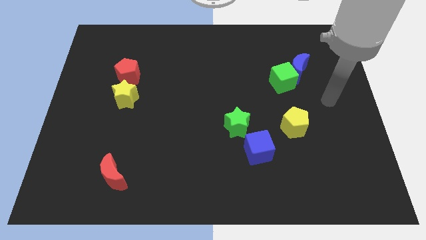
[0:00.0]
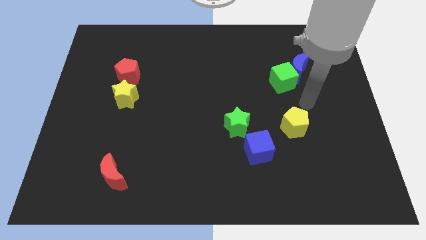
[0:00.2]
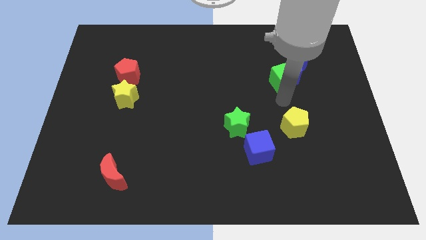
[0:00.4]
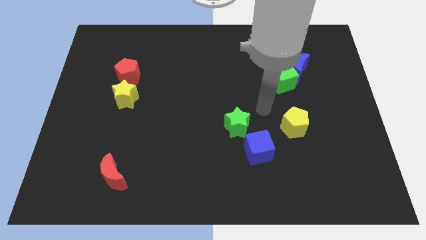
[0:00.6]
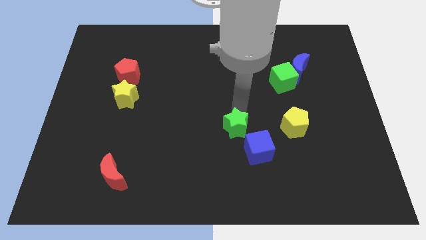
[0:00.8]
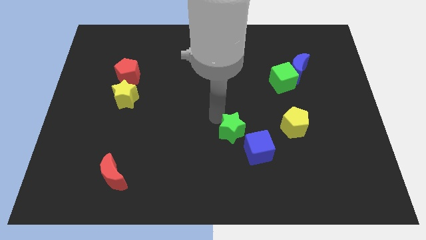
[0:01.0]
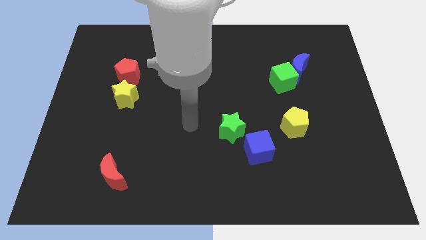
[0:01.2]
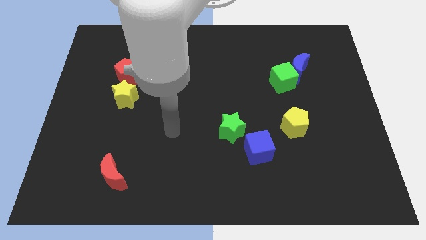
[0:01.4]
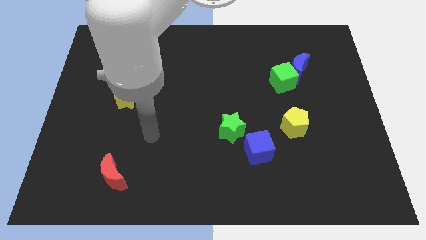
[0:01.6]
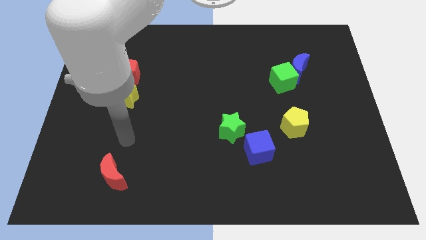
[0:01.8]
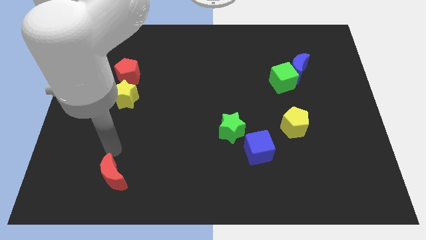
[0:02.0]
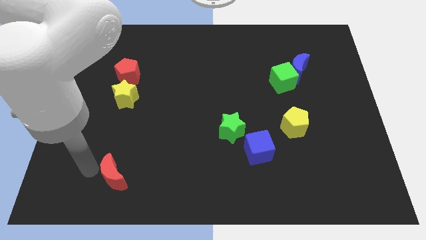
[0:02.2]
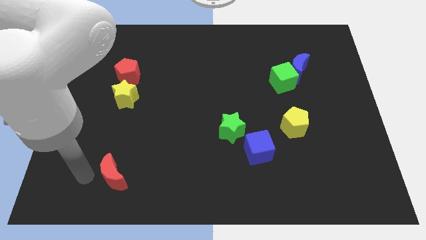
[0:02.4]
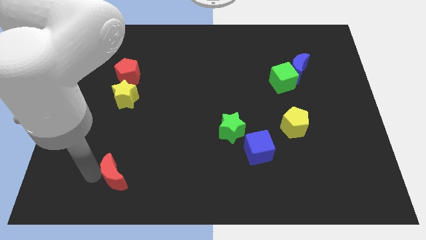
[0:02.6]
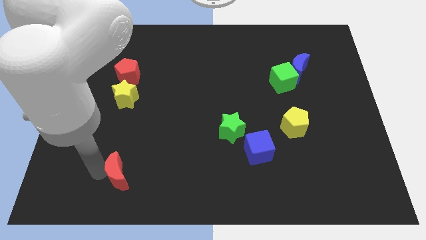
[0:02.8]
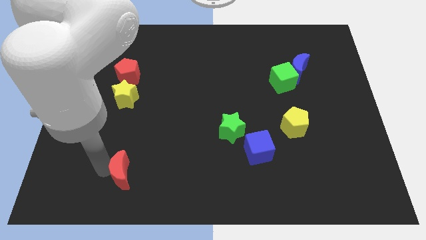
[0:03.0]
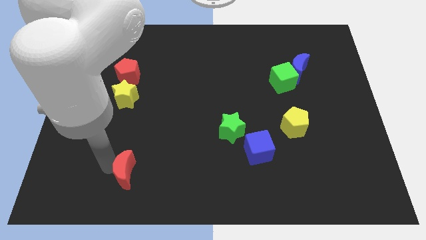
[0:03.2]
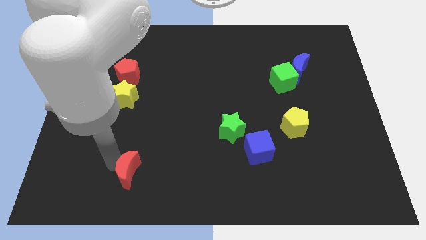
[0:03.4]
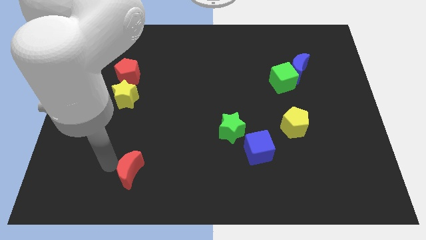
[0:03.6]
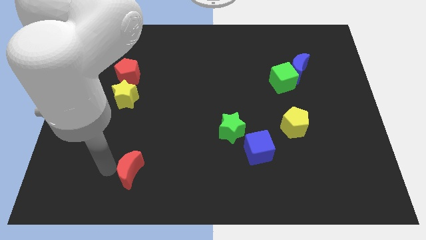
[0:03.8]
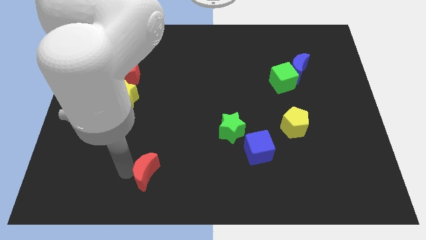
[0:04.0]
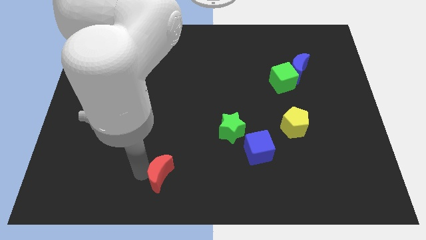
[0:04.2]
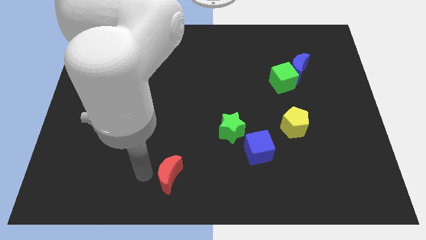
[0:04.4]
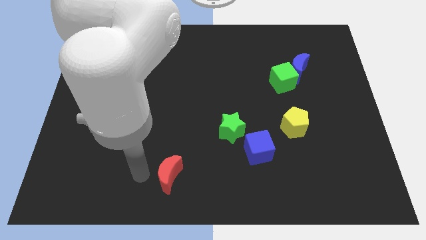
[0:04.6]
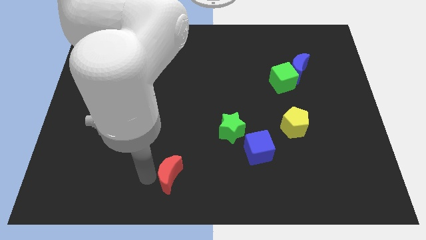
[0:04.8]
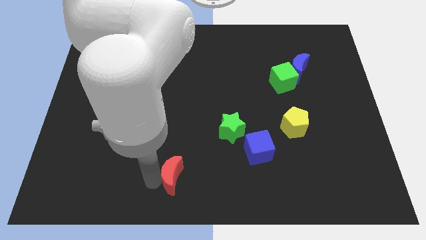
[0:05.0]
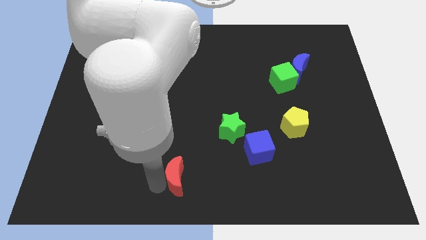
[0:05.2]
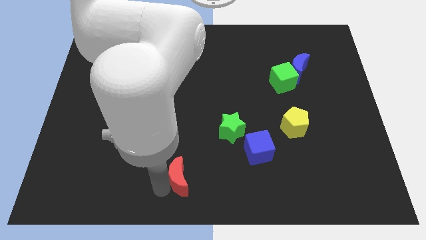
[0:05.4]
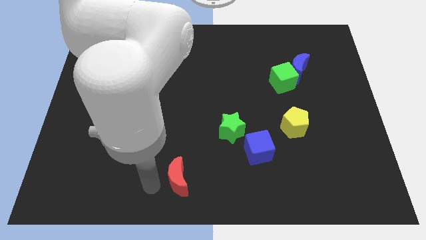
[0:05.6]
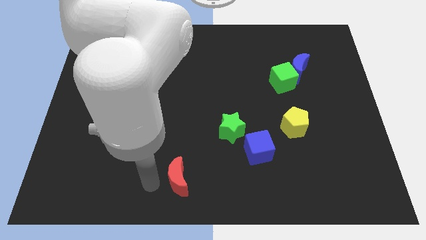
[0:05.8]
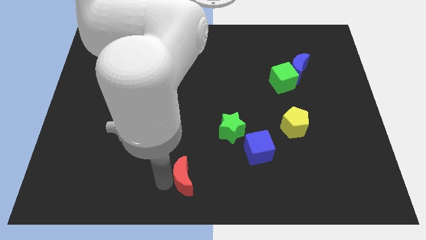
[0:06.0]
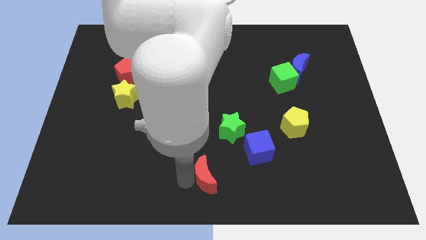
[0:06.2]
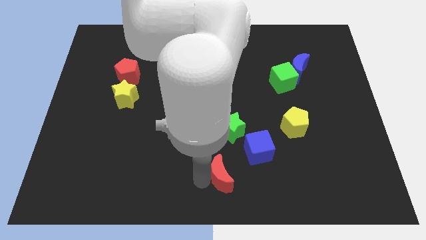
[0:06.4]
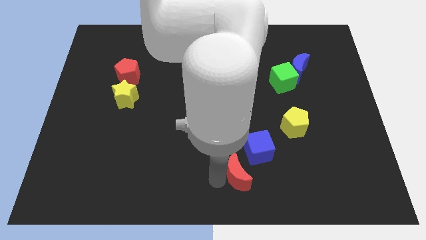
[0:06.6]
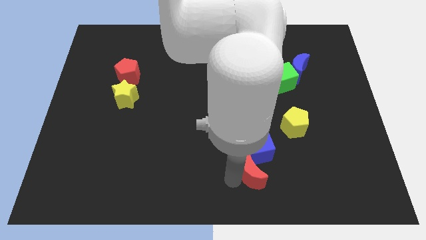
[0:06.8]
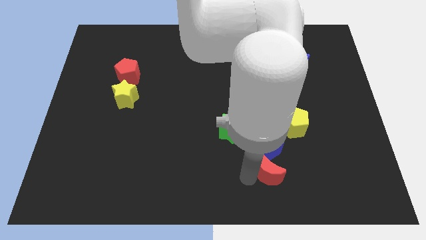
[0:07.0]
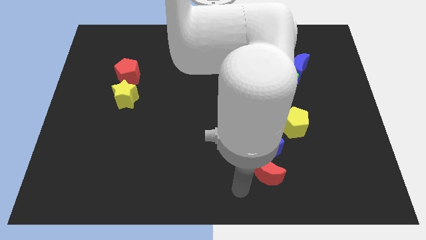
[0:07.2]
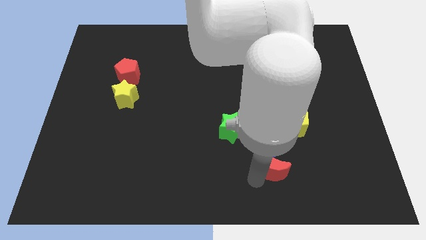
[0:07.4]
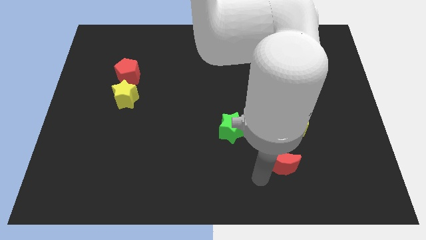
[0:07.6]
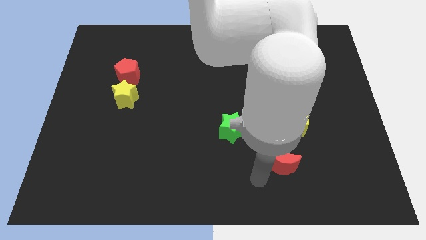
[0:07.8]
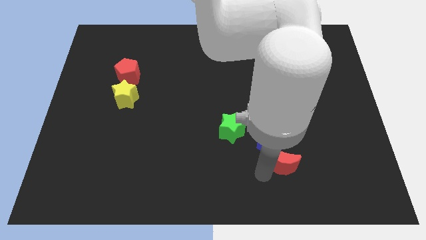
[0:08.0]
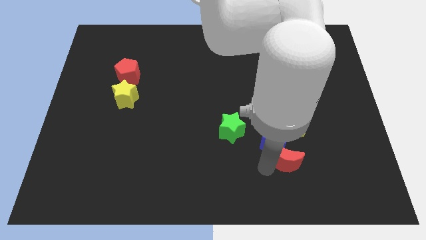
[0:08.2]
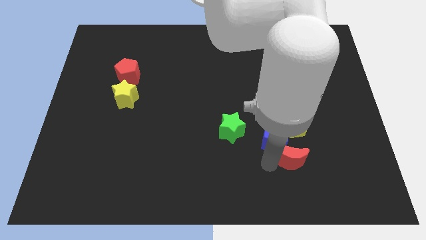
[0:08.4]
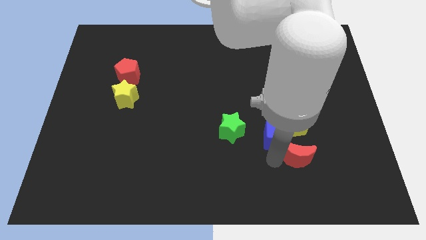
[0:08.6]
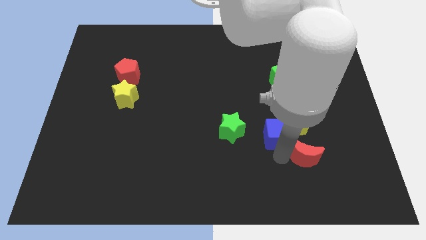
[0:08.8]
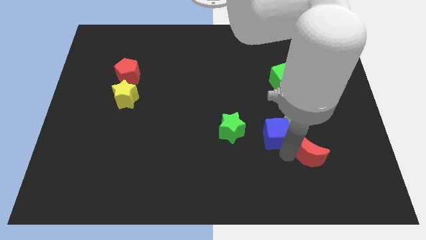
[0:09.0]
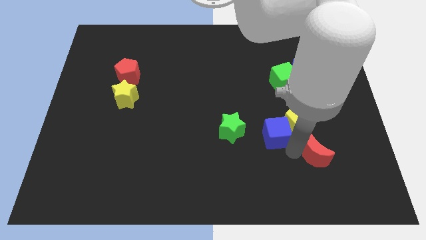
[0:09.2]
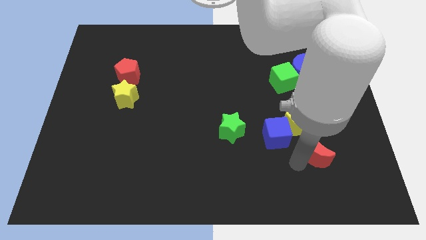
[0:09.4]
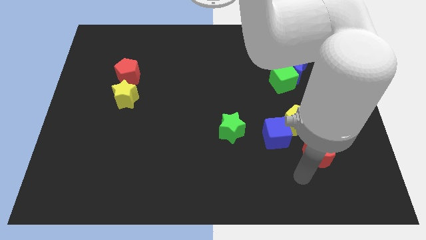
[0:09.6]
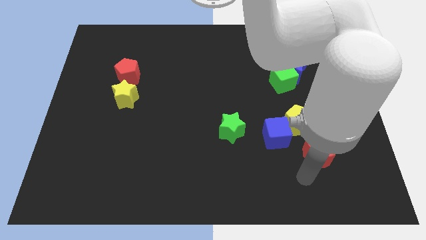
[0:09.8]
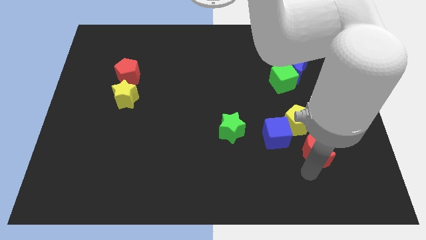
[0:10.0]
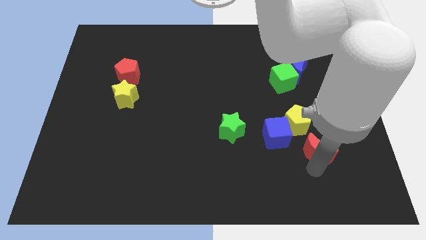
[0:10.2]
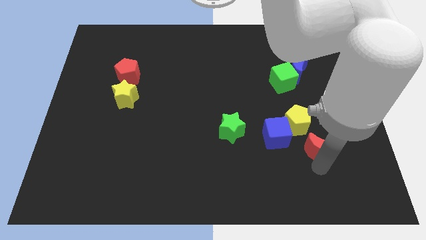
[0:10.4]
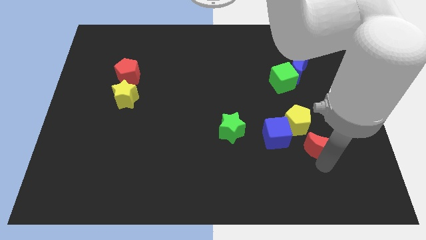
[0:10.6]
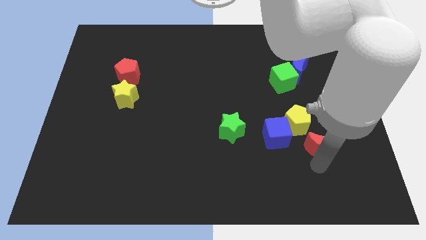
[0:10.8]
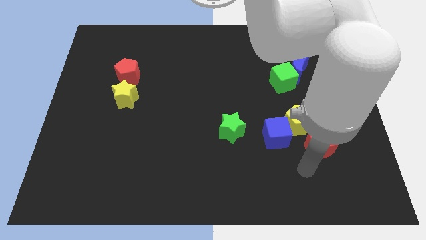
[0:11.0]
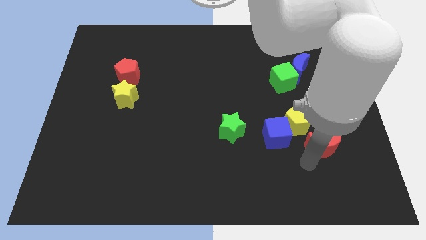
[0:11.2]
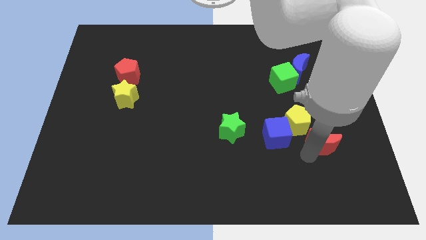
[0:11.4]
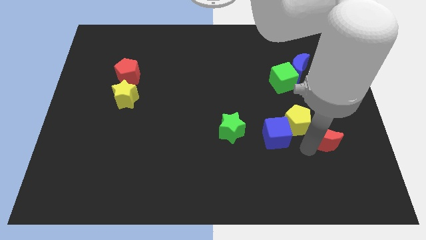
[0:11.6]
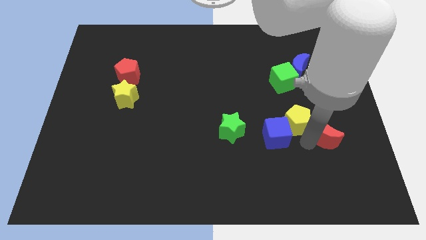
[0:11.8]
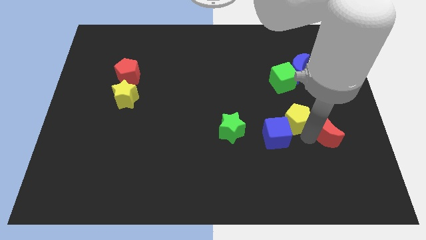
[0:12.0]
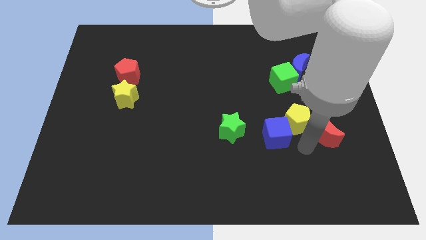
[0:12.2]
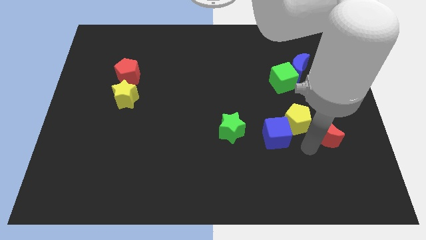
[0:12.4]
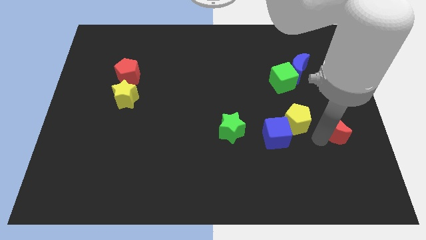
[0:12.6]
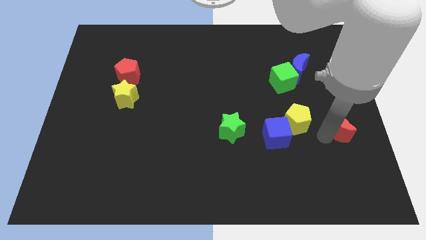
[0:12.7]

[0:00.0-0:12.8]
move the red moon to the right side of the board

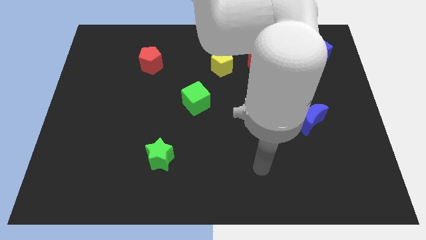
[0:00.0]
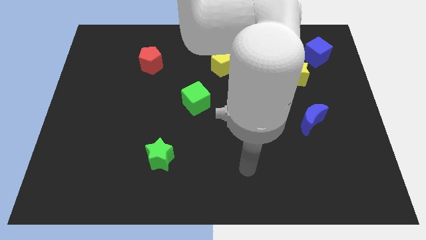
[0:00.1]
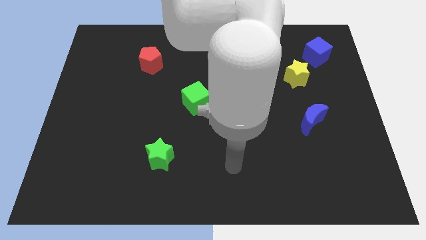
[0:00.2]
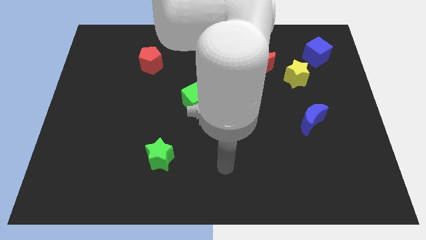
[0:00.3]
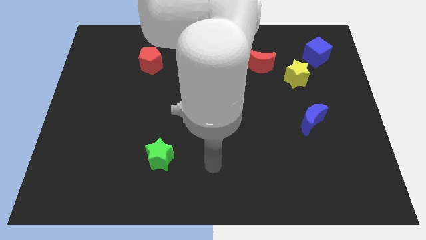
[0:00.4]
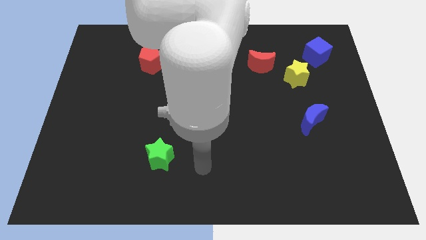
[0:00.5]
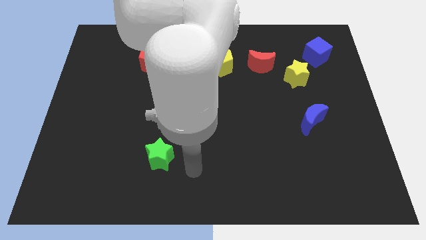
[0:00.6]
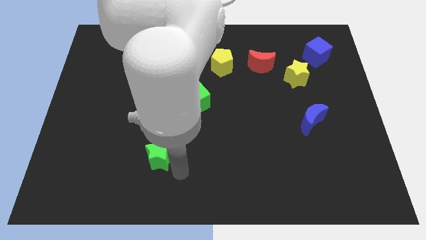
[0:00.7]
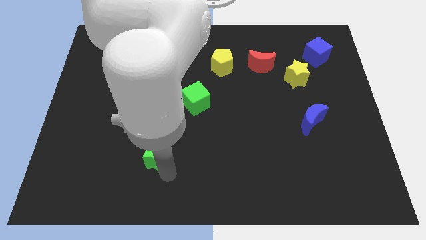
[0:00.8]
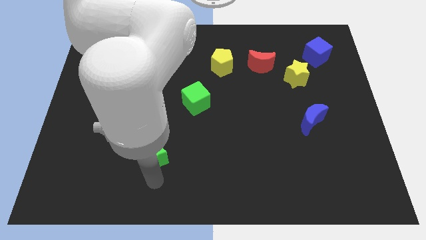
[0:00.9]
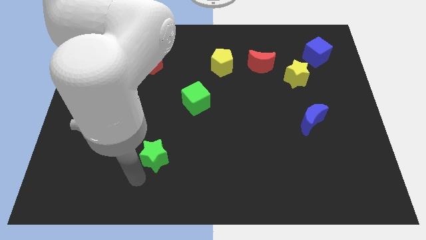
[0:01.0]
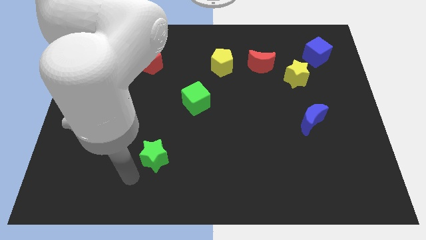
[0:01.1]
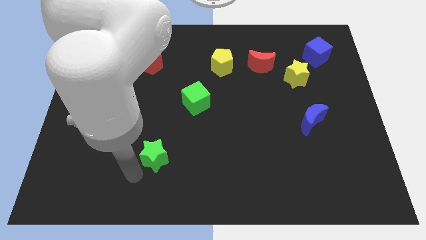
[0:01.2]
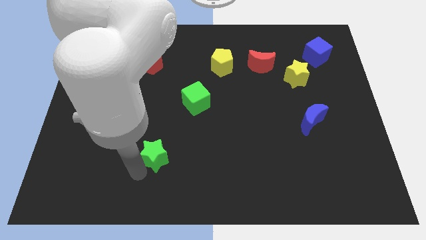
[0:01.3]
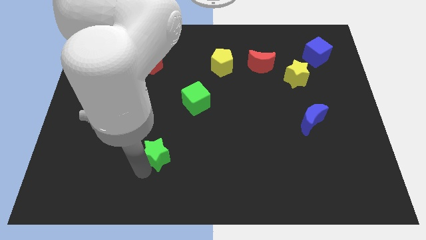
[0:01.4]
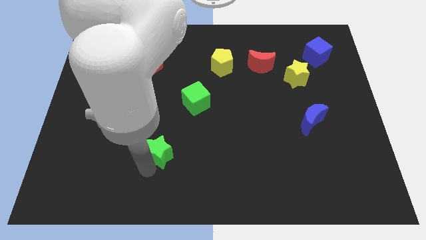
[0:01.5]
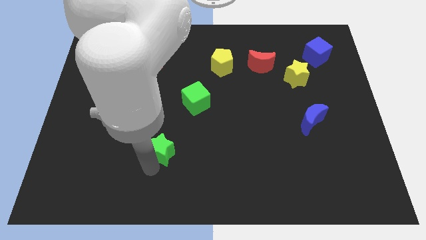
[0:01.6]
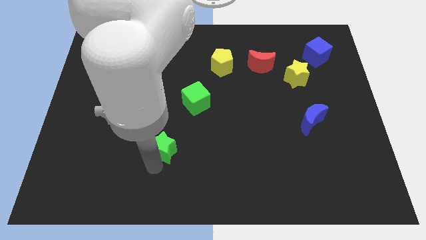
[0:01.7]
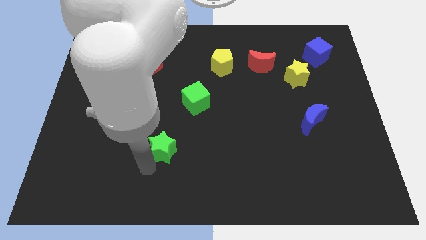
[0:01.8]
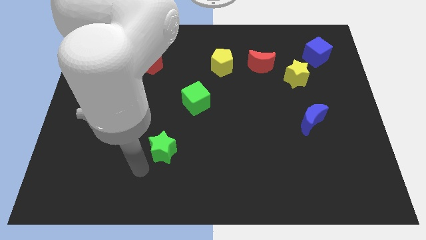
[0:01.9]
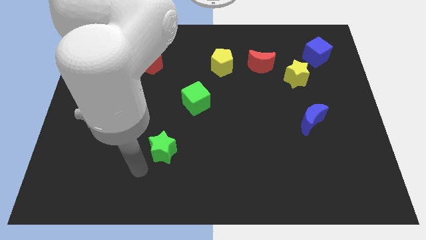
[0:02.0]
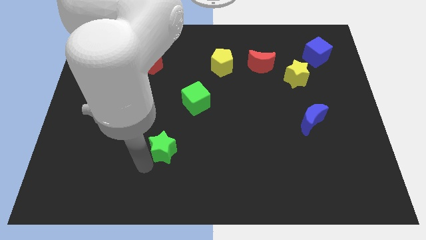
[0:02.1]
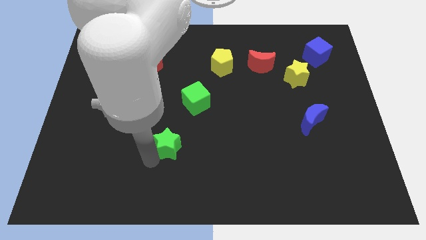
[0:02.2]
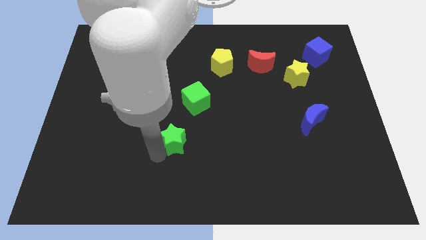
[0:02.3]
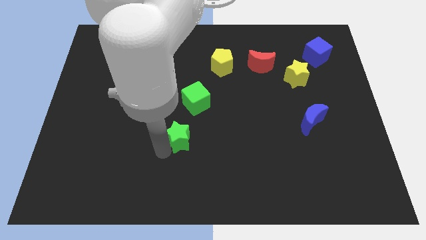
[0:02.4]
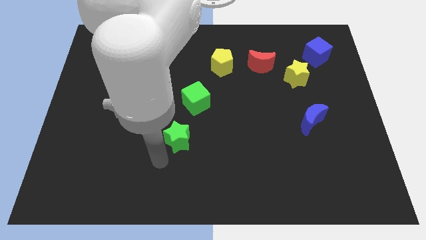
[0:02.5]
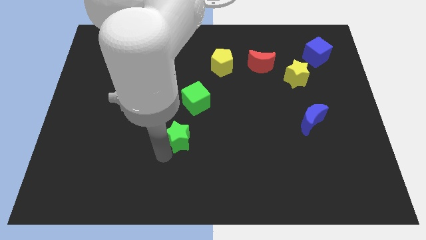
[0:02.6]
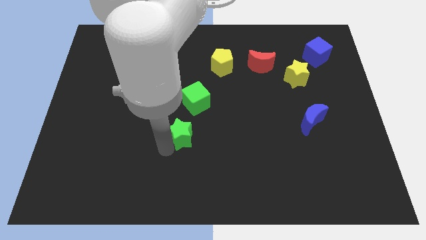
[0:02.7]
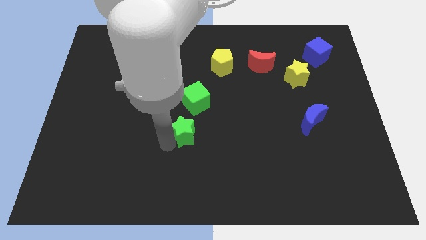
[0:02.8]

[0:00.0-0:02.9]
put the green star to the middle of the board
